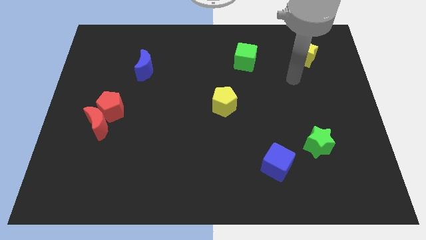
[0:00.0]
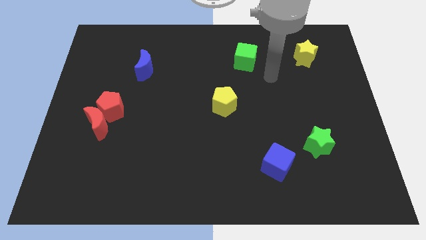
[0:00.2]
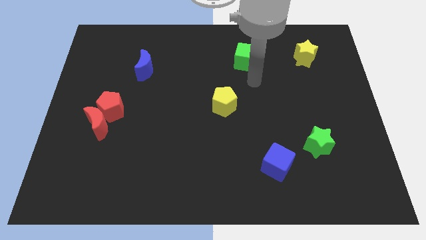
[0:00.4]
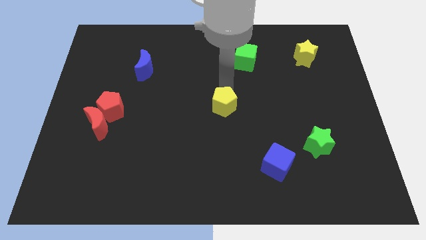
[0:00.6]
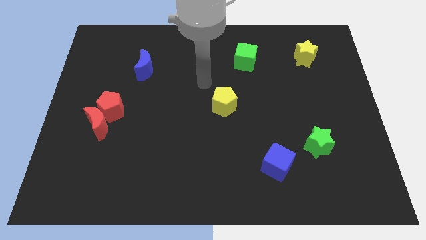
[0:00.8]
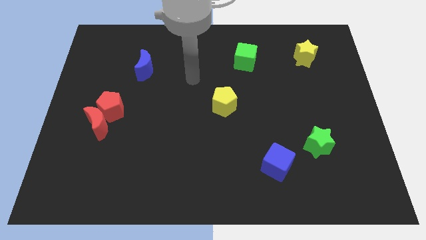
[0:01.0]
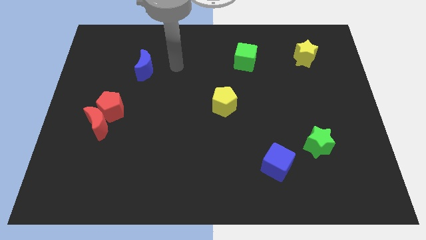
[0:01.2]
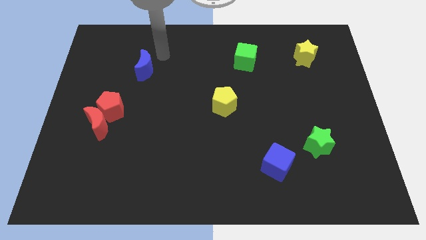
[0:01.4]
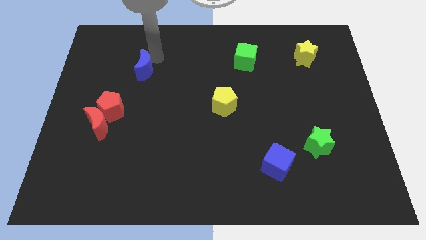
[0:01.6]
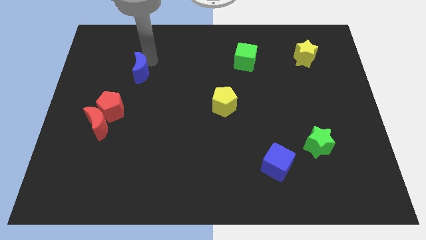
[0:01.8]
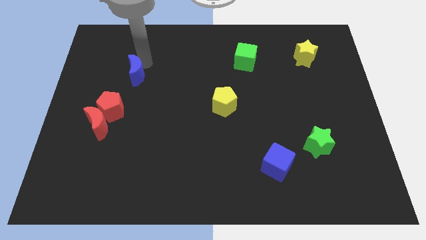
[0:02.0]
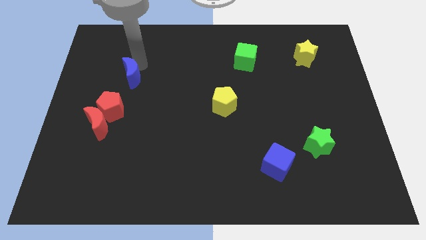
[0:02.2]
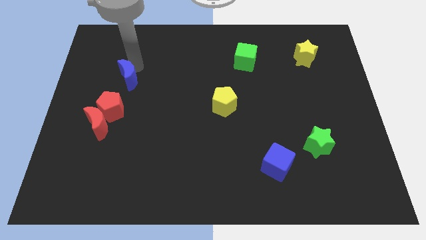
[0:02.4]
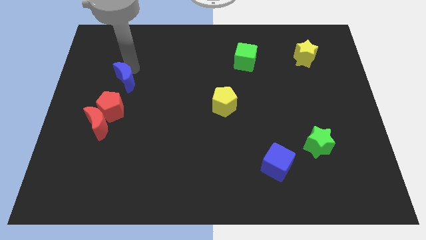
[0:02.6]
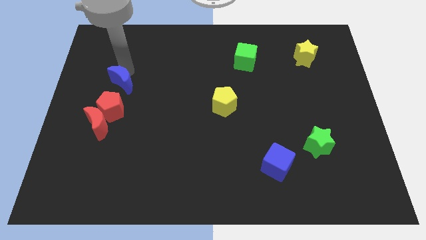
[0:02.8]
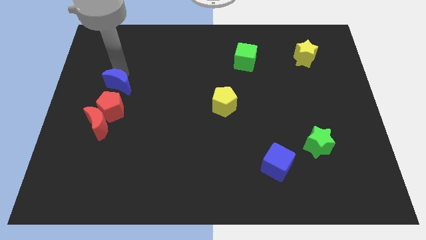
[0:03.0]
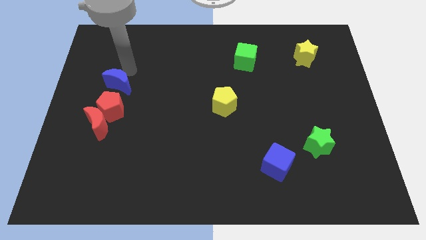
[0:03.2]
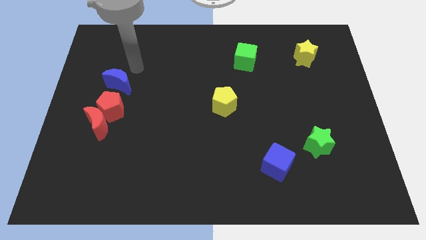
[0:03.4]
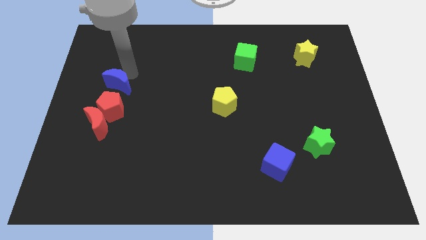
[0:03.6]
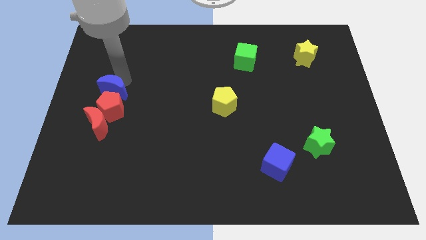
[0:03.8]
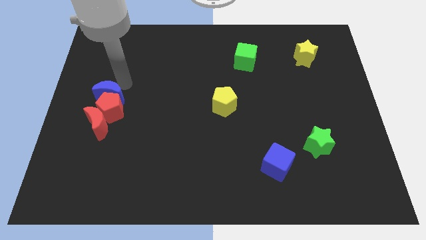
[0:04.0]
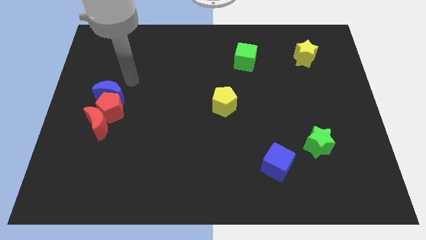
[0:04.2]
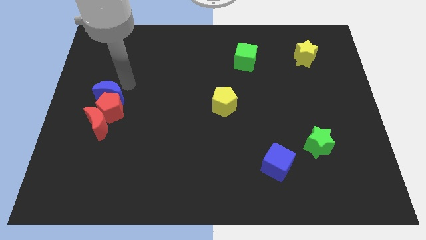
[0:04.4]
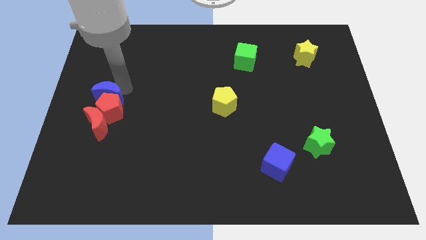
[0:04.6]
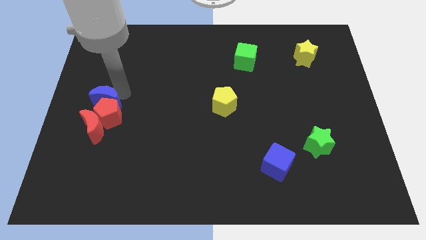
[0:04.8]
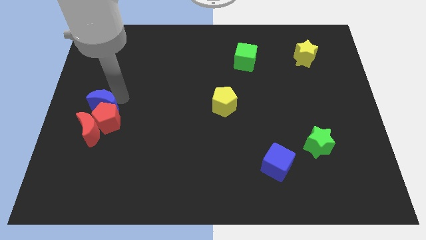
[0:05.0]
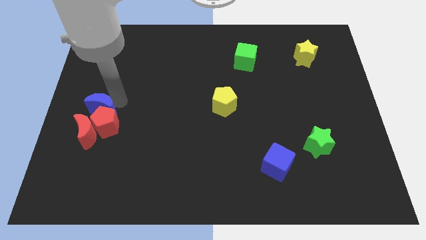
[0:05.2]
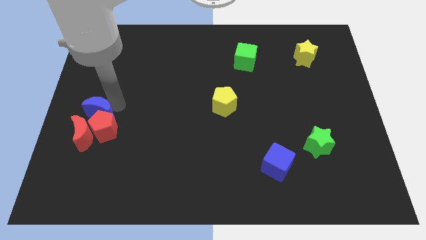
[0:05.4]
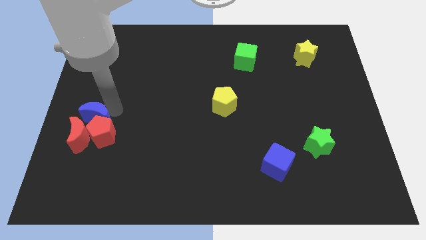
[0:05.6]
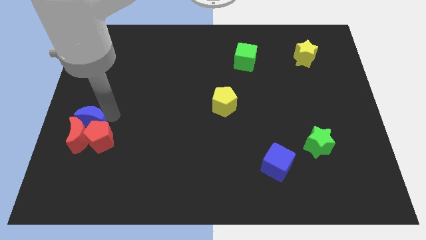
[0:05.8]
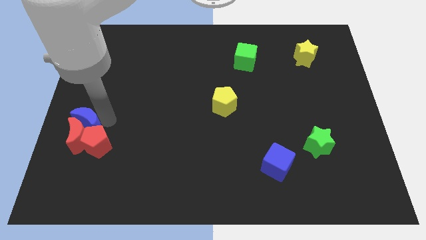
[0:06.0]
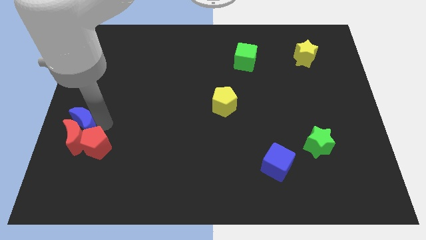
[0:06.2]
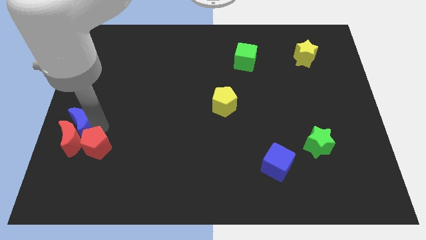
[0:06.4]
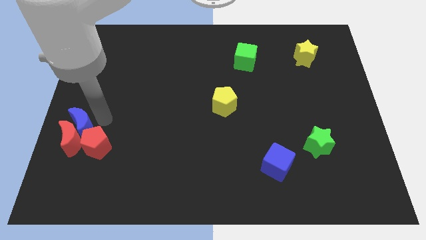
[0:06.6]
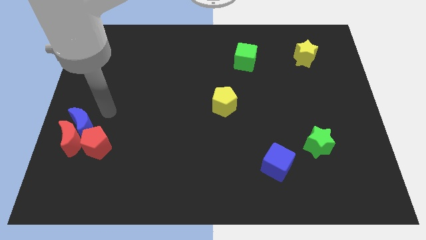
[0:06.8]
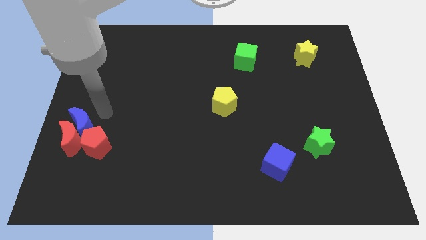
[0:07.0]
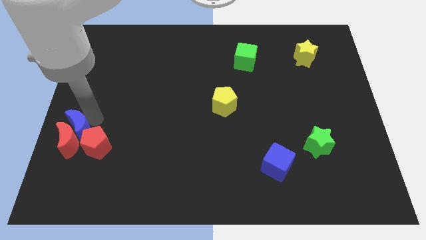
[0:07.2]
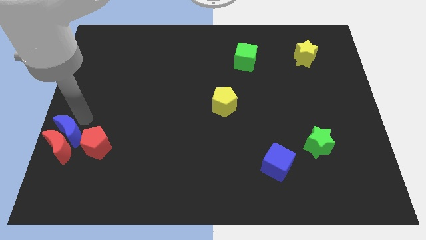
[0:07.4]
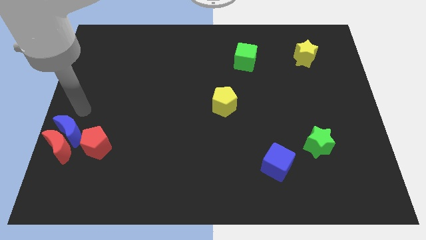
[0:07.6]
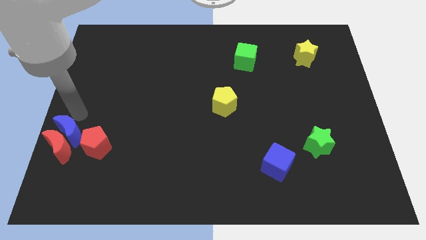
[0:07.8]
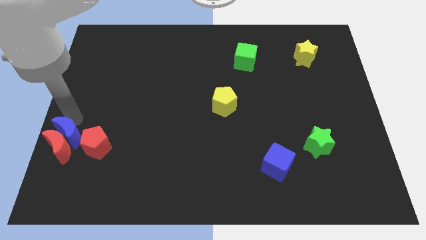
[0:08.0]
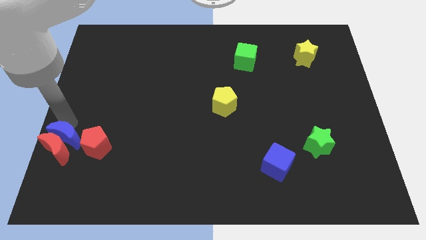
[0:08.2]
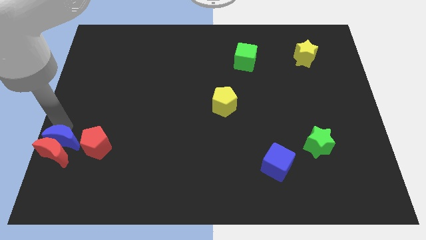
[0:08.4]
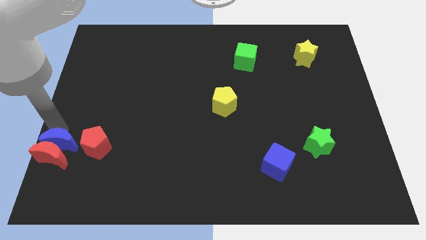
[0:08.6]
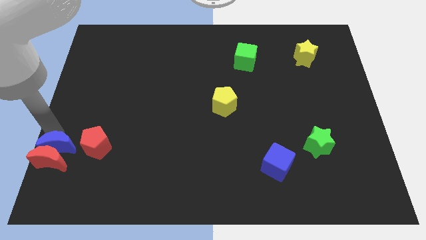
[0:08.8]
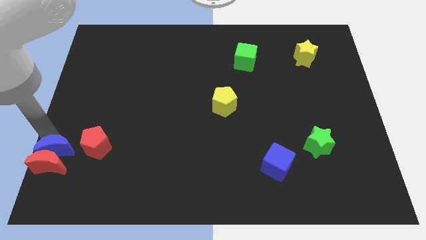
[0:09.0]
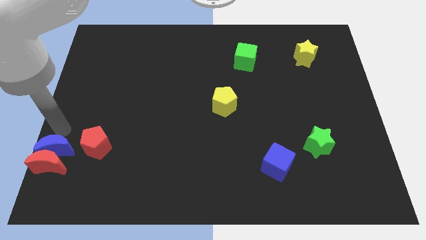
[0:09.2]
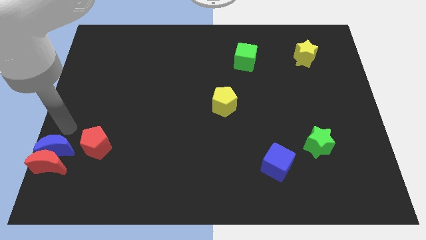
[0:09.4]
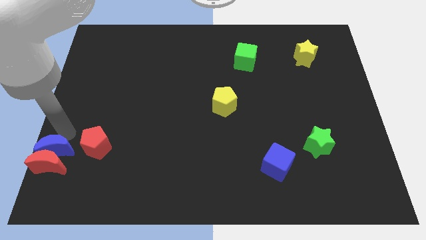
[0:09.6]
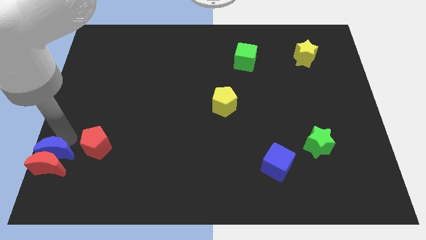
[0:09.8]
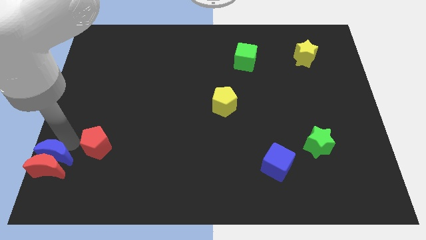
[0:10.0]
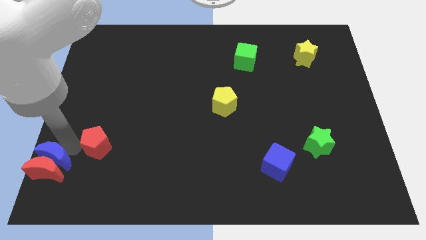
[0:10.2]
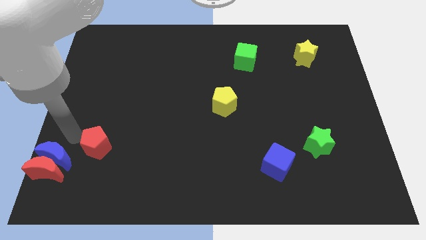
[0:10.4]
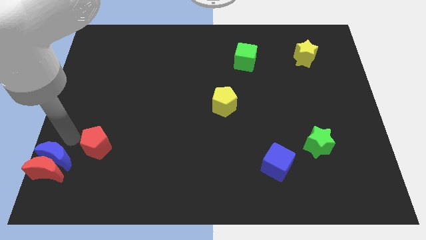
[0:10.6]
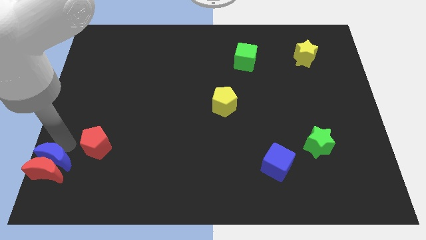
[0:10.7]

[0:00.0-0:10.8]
move the blue moon to the bottom left

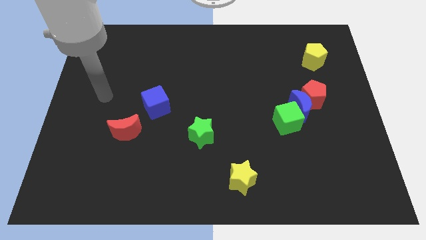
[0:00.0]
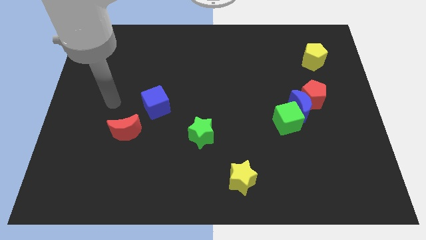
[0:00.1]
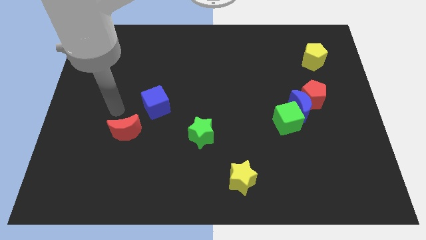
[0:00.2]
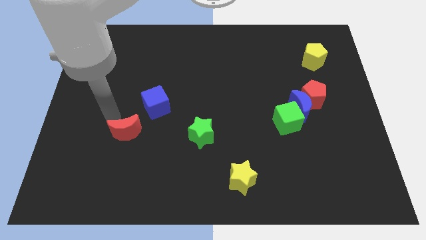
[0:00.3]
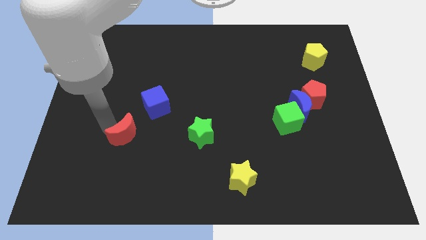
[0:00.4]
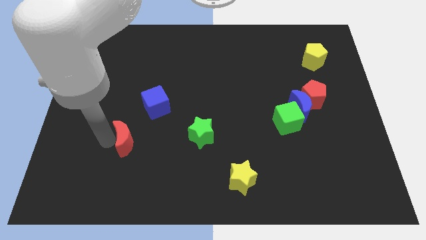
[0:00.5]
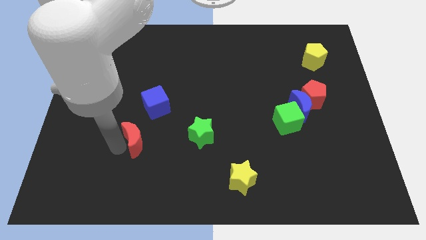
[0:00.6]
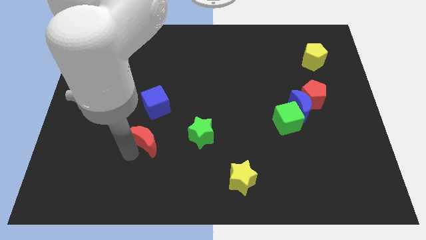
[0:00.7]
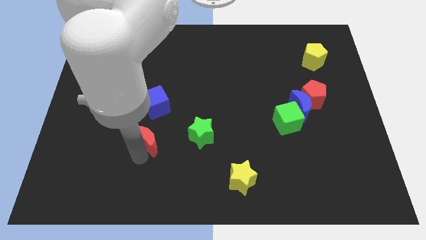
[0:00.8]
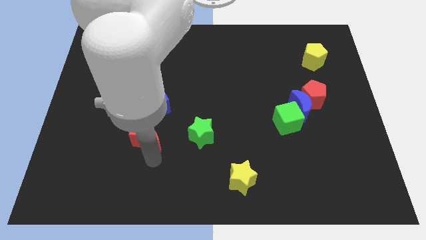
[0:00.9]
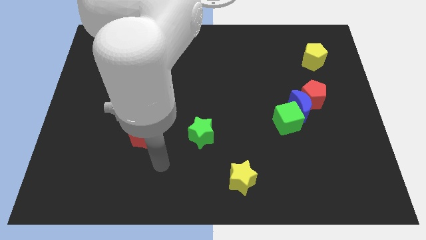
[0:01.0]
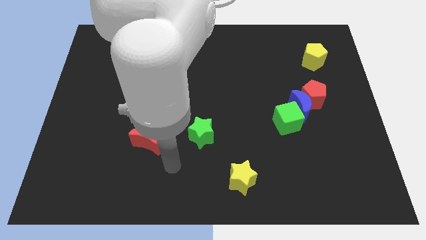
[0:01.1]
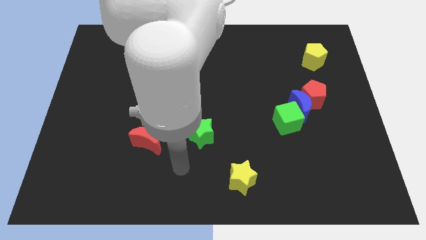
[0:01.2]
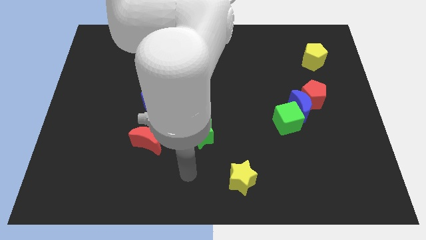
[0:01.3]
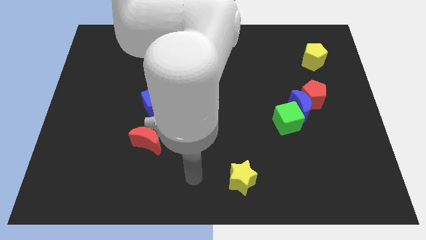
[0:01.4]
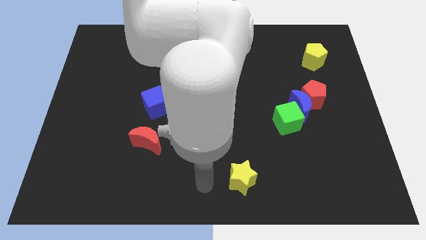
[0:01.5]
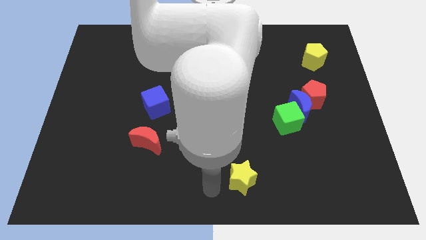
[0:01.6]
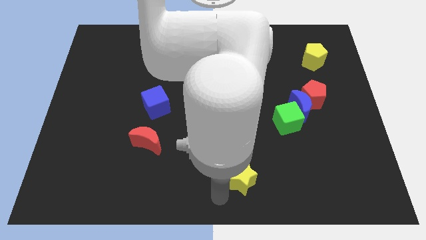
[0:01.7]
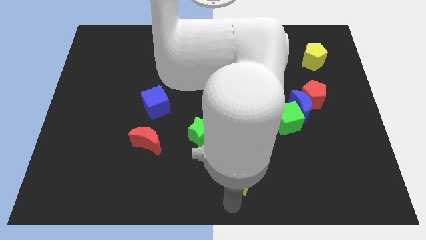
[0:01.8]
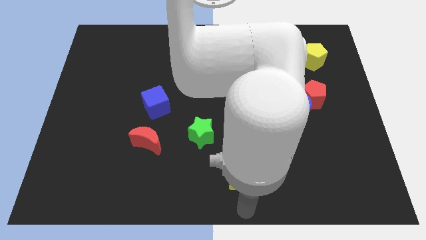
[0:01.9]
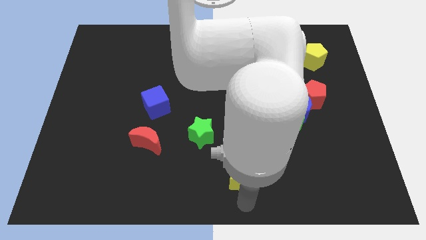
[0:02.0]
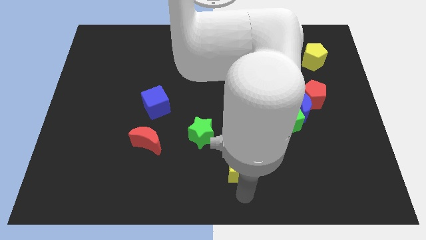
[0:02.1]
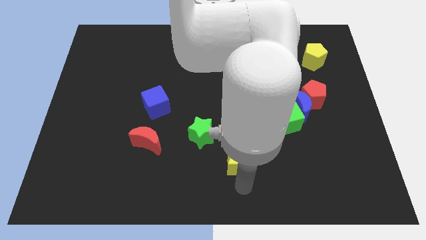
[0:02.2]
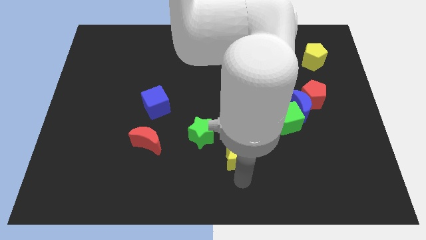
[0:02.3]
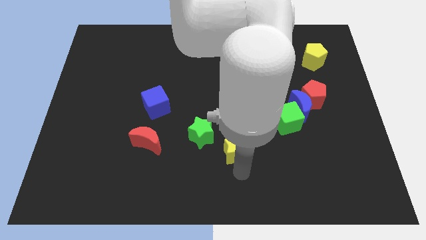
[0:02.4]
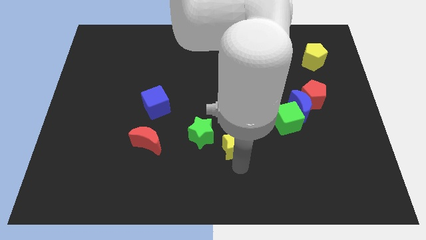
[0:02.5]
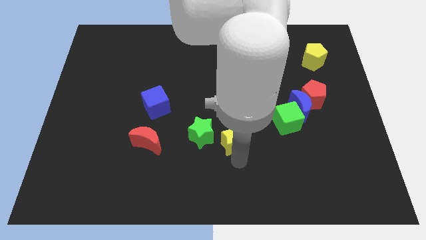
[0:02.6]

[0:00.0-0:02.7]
push the yellow star to the middle
